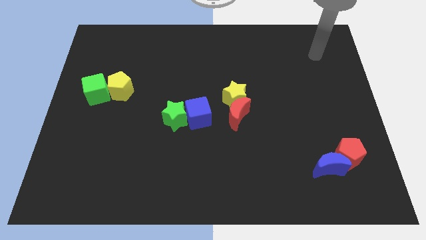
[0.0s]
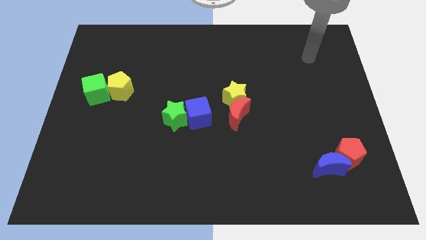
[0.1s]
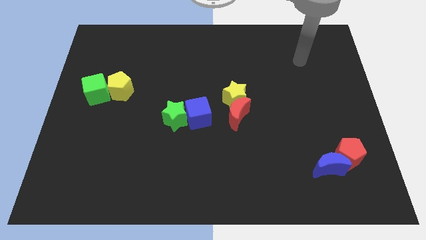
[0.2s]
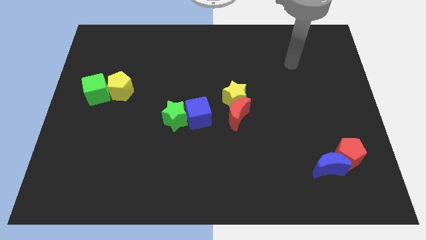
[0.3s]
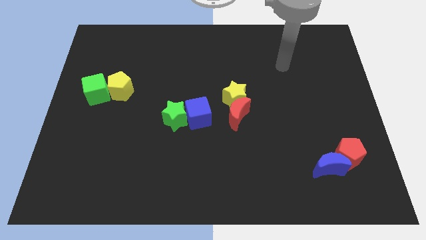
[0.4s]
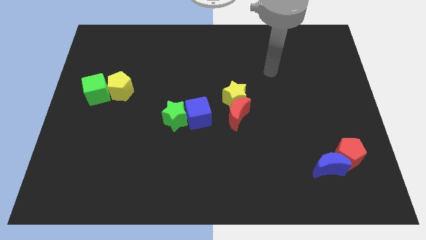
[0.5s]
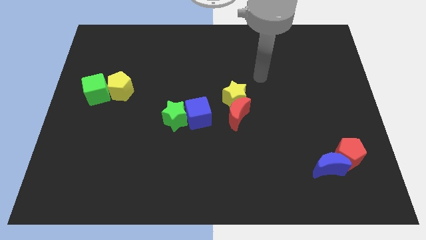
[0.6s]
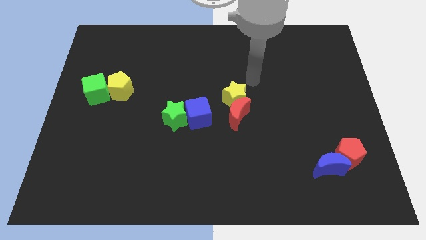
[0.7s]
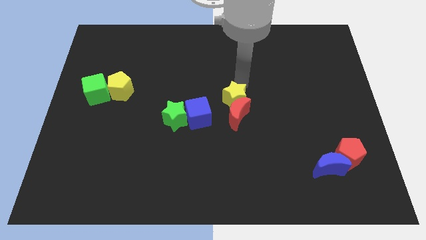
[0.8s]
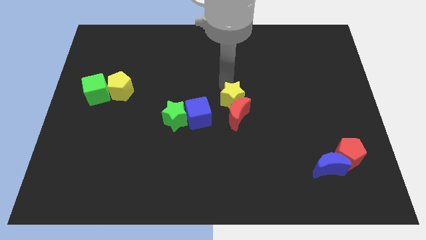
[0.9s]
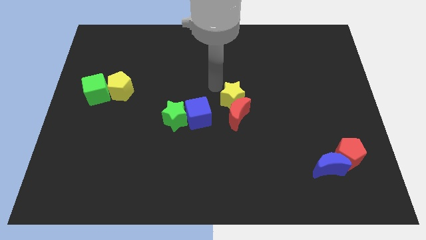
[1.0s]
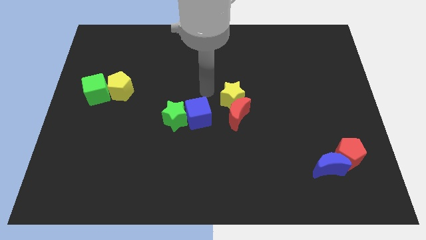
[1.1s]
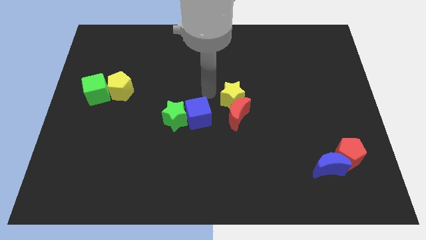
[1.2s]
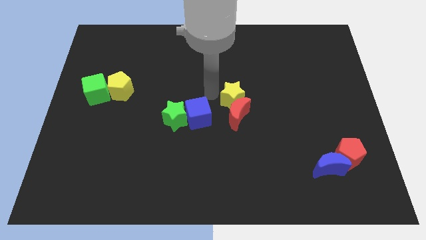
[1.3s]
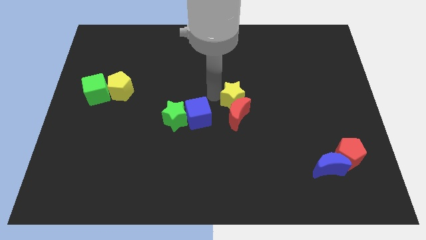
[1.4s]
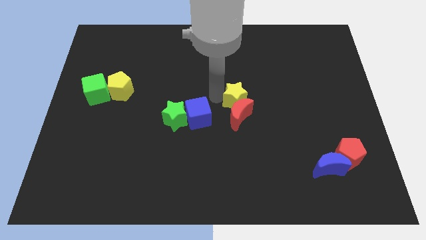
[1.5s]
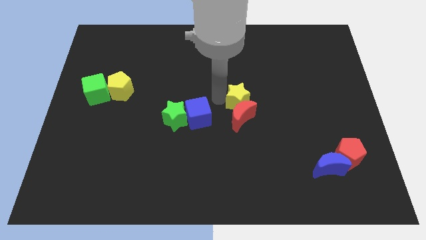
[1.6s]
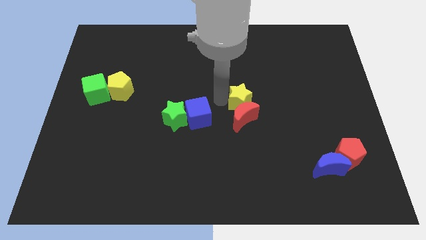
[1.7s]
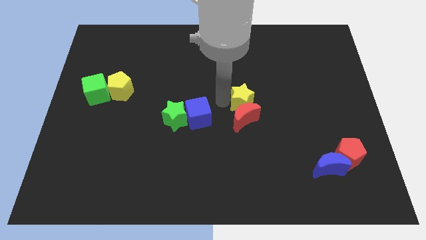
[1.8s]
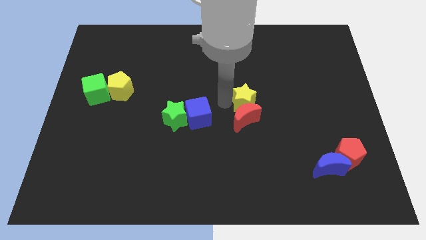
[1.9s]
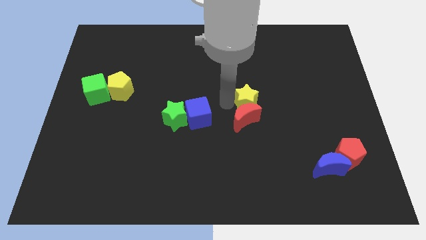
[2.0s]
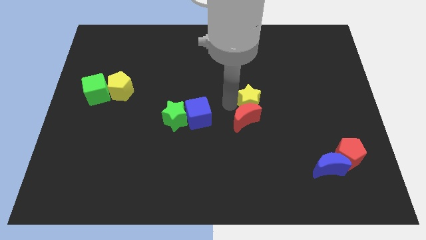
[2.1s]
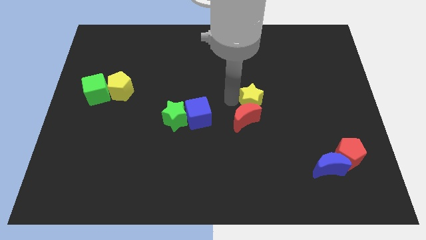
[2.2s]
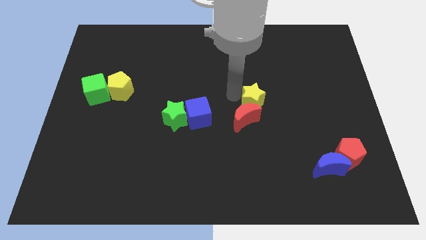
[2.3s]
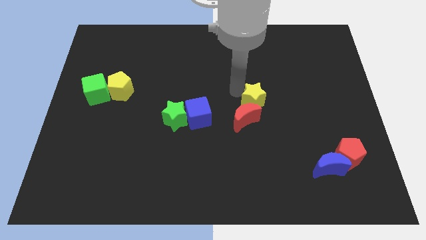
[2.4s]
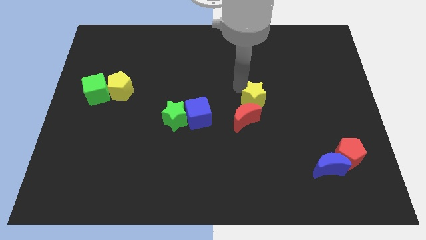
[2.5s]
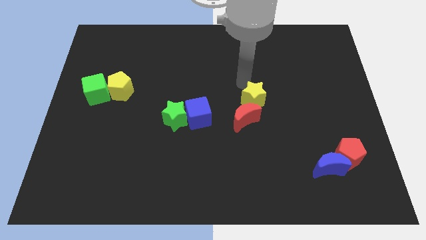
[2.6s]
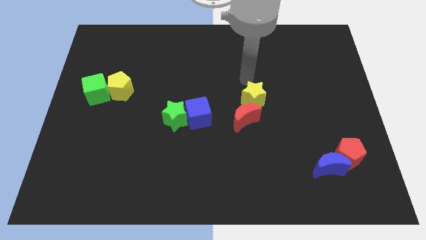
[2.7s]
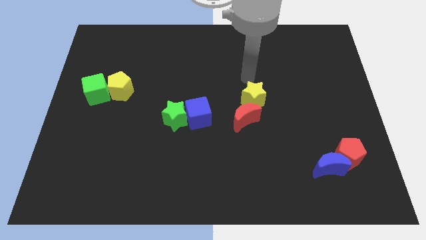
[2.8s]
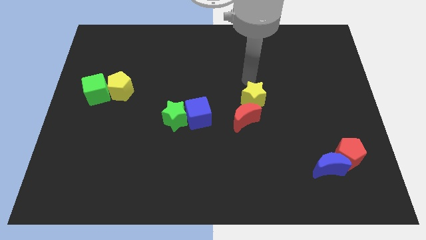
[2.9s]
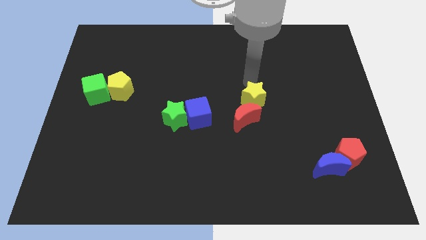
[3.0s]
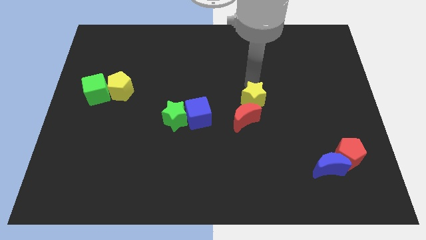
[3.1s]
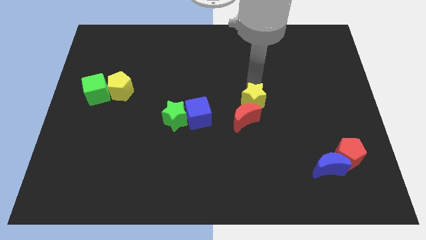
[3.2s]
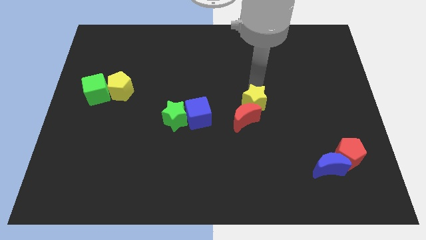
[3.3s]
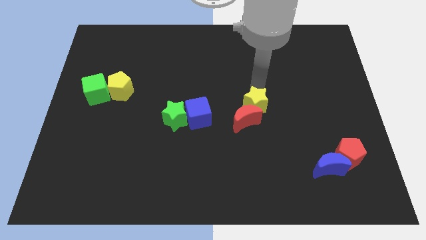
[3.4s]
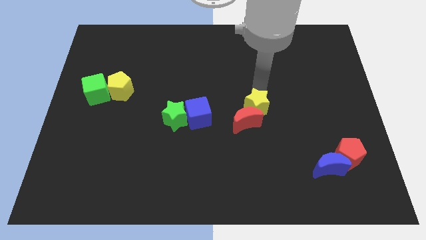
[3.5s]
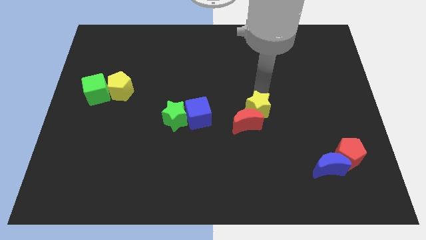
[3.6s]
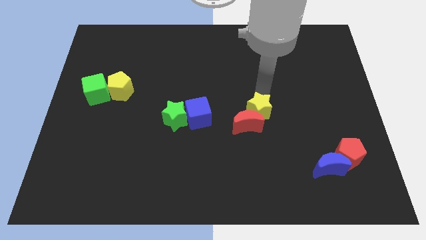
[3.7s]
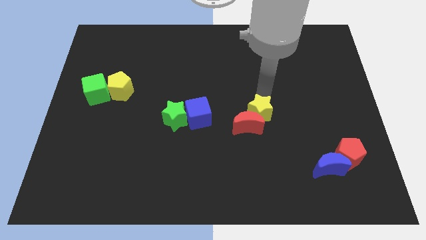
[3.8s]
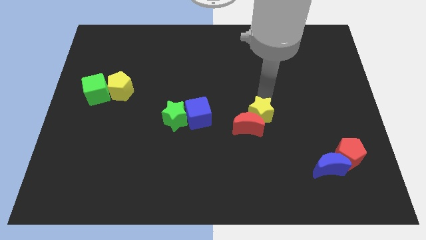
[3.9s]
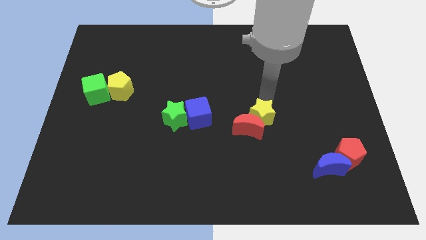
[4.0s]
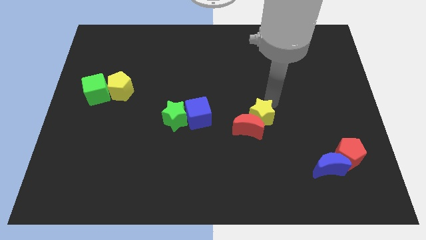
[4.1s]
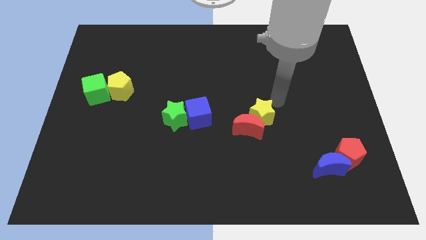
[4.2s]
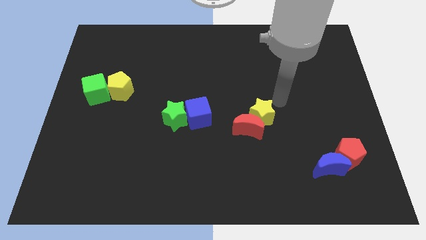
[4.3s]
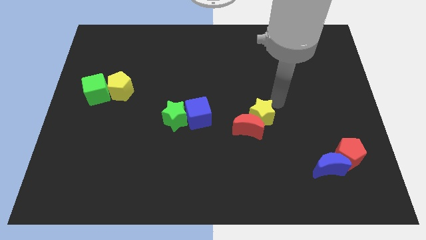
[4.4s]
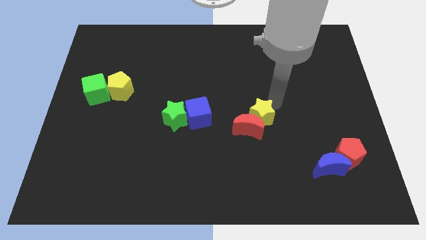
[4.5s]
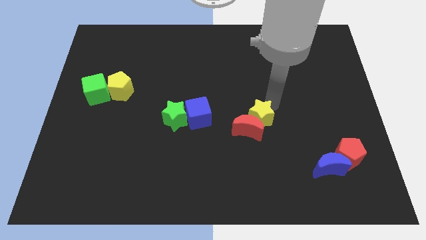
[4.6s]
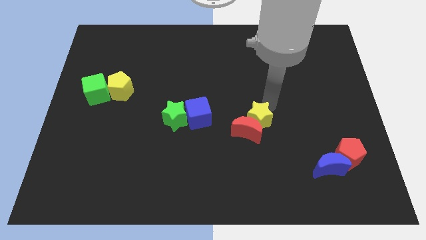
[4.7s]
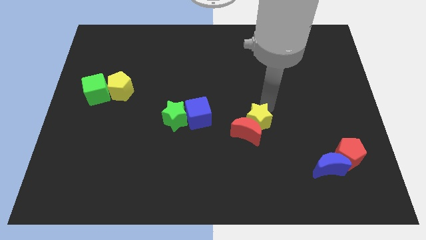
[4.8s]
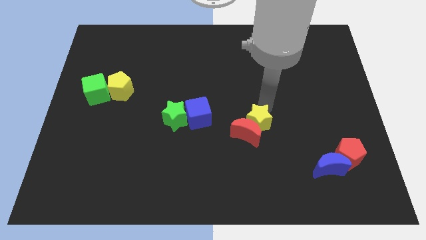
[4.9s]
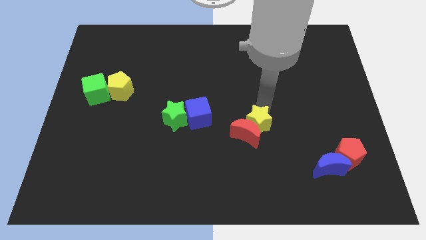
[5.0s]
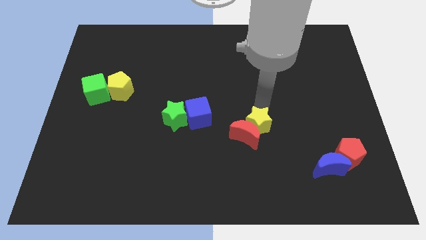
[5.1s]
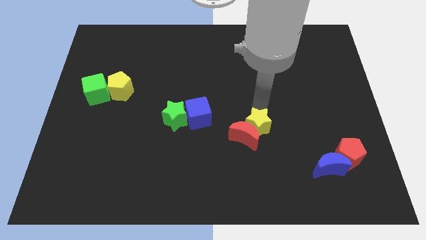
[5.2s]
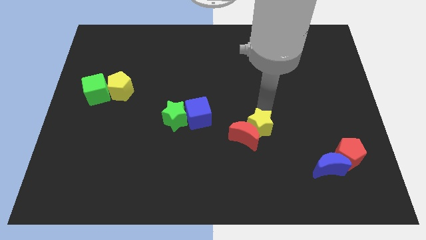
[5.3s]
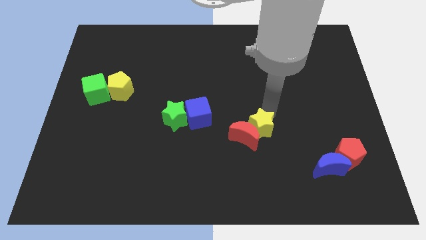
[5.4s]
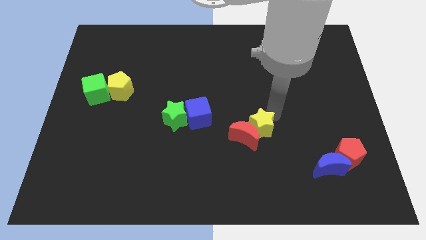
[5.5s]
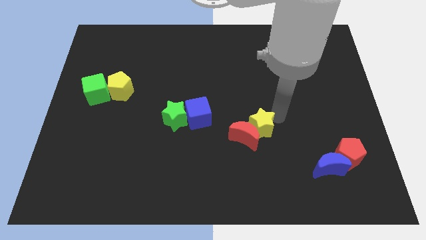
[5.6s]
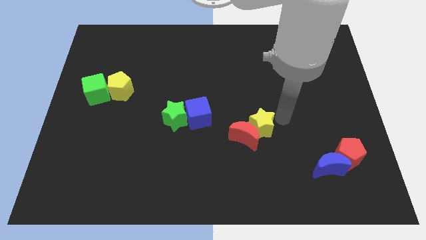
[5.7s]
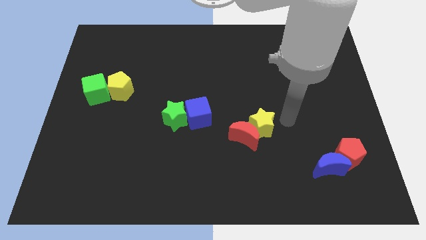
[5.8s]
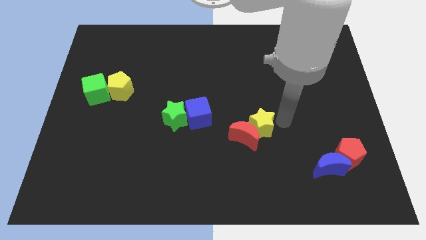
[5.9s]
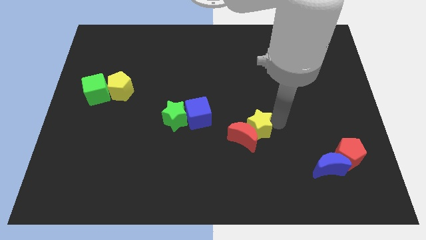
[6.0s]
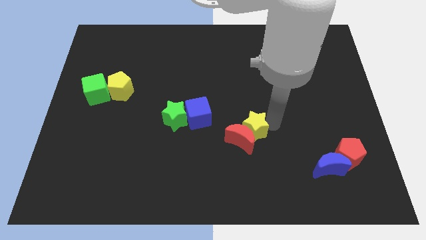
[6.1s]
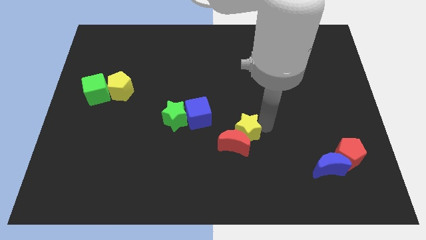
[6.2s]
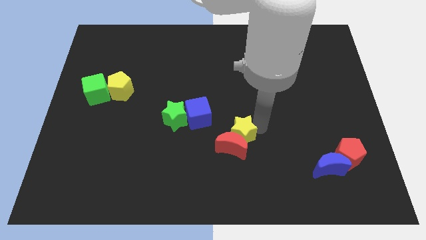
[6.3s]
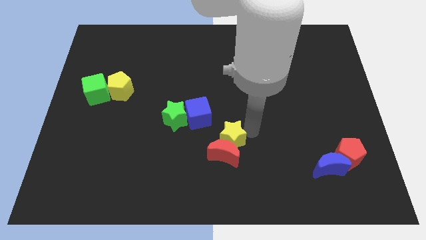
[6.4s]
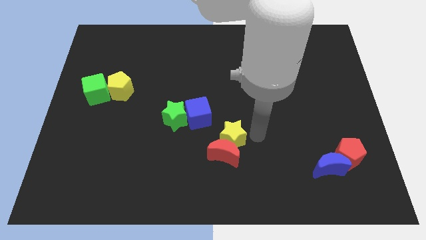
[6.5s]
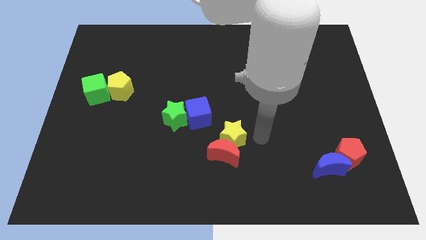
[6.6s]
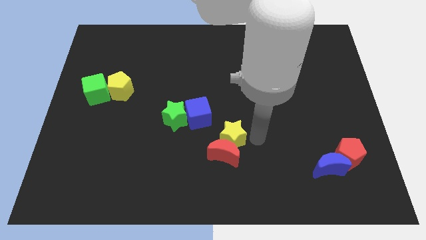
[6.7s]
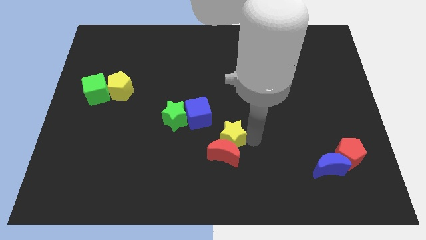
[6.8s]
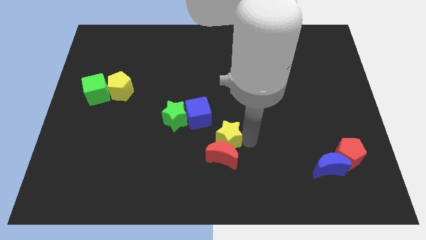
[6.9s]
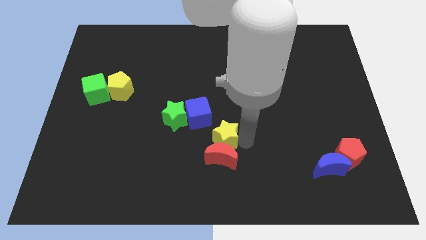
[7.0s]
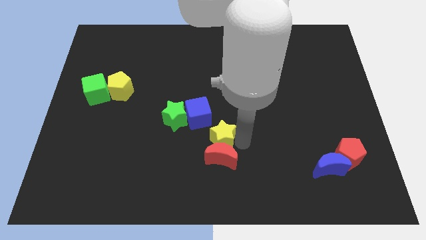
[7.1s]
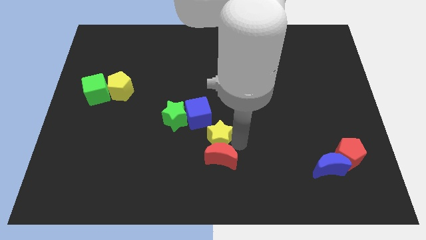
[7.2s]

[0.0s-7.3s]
push the yellow star to the bottom right of the green star
